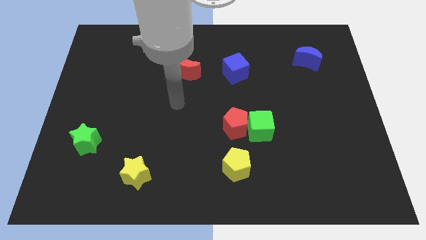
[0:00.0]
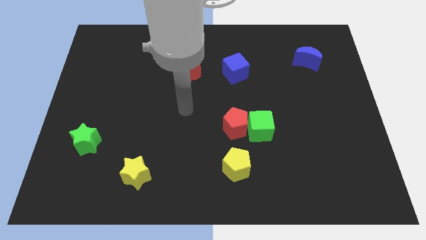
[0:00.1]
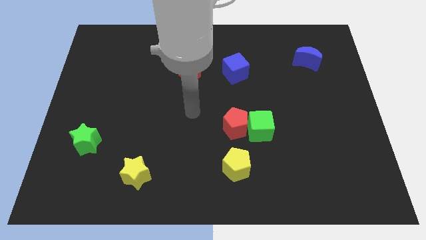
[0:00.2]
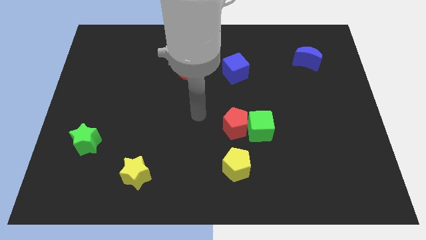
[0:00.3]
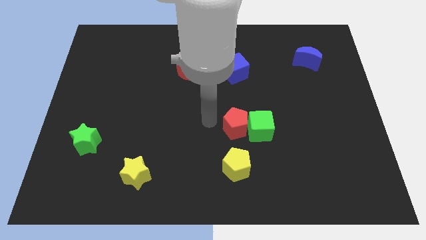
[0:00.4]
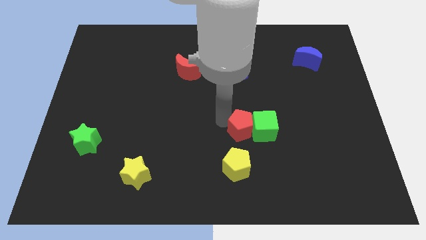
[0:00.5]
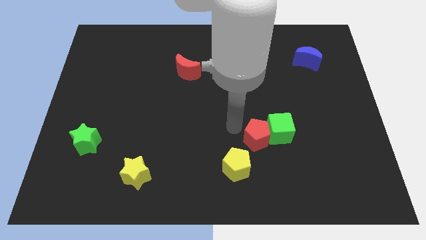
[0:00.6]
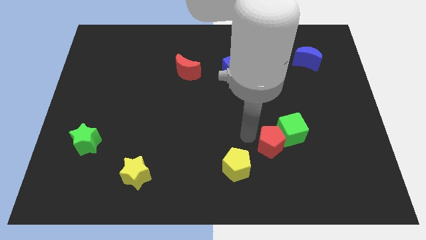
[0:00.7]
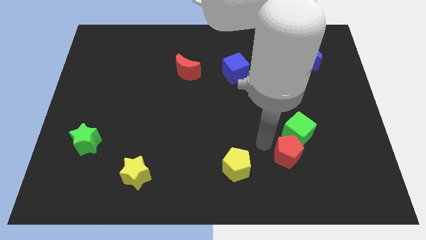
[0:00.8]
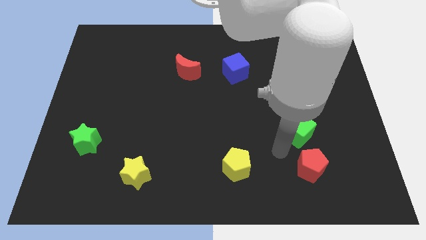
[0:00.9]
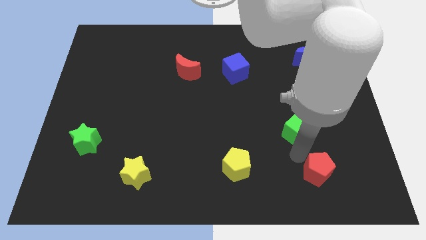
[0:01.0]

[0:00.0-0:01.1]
separate the green cube from the red pentagon

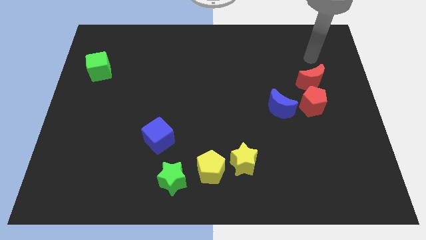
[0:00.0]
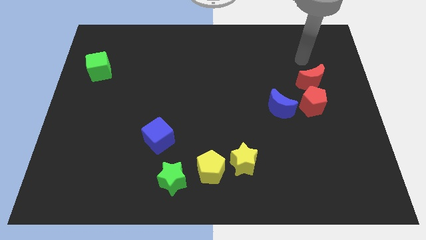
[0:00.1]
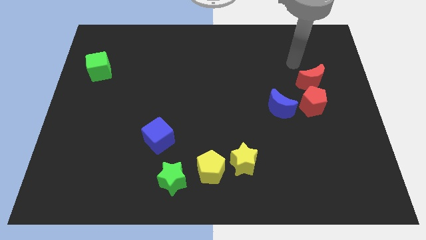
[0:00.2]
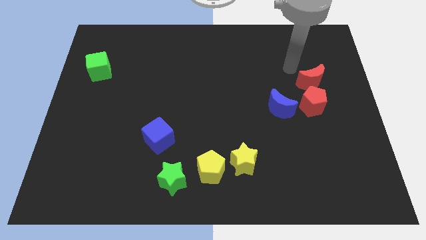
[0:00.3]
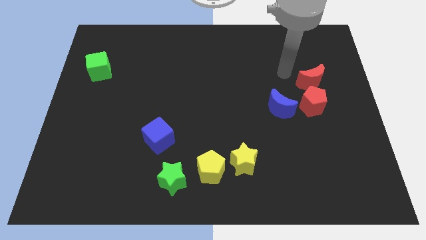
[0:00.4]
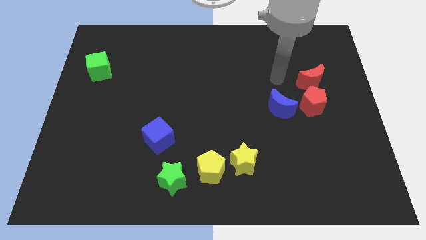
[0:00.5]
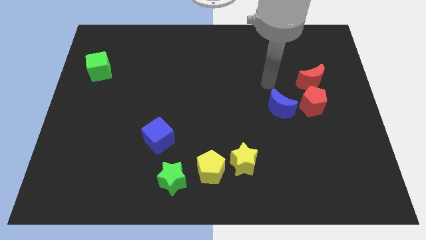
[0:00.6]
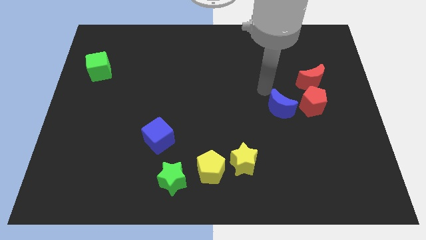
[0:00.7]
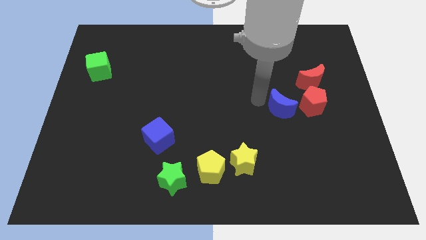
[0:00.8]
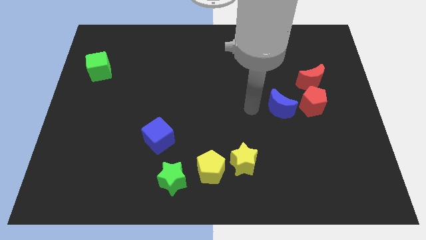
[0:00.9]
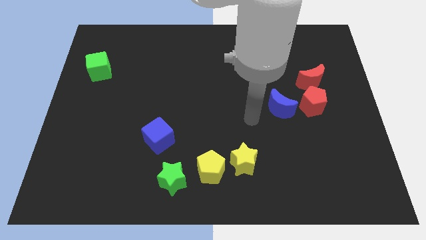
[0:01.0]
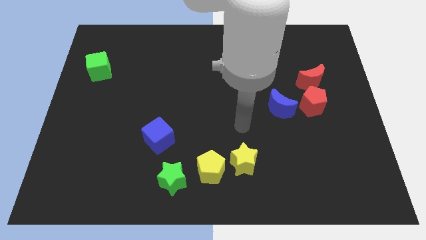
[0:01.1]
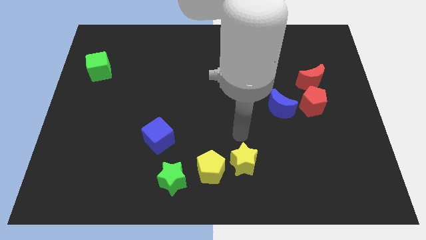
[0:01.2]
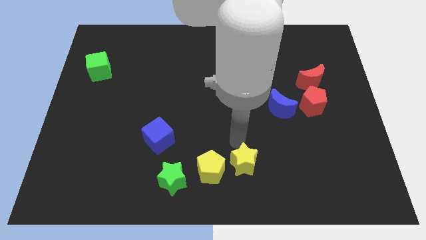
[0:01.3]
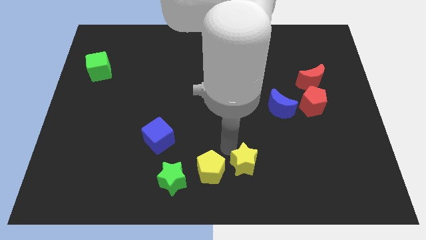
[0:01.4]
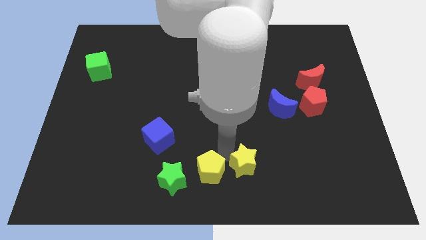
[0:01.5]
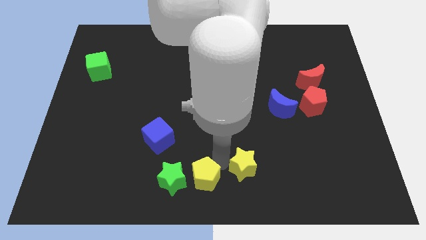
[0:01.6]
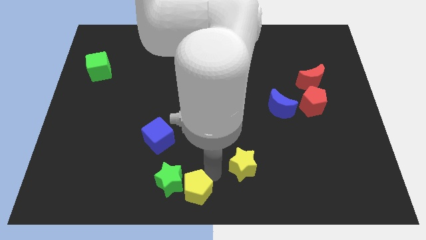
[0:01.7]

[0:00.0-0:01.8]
move the yellow star away from the yellow pentagon

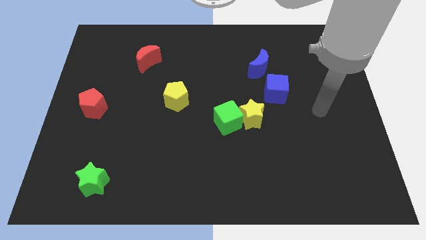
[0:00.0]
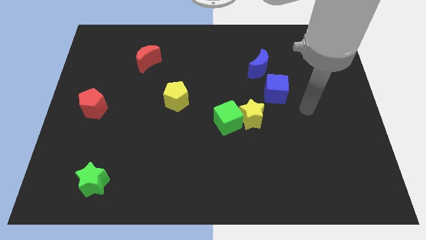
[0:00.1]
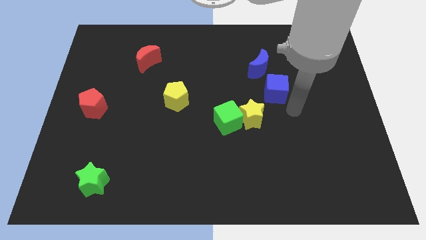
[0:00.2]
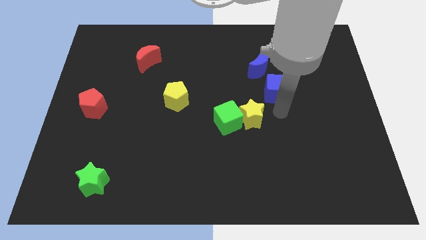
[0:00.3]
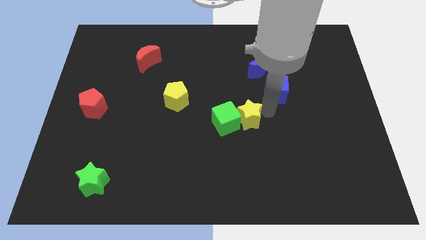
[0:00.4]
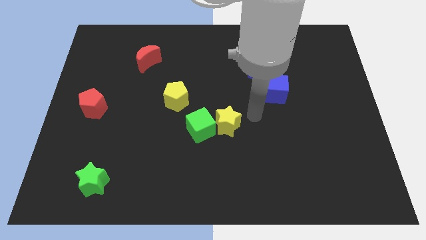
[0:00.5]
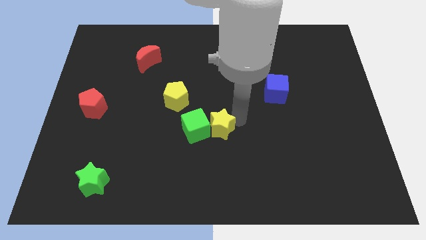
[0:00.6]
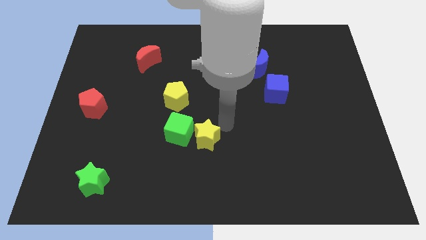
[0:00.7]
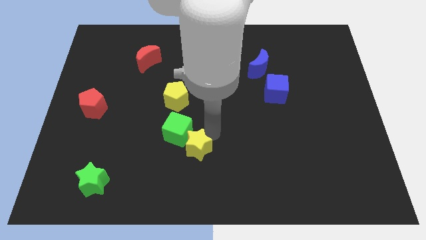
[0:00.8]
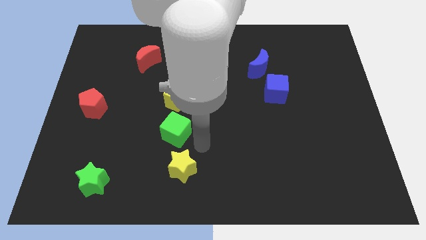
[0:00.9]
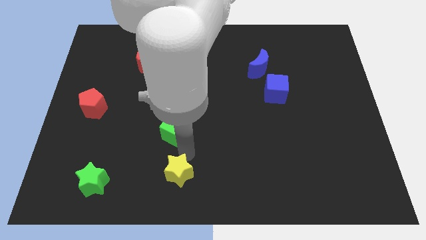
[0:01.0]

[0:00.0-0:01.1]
pull the green cube apart from the yellow star

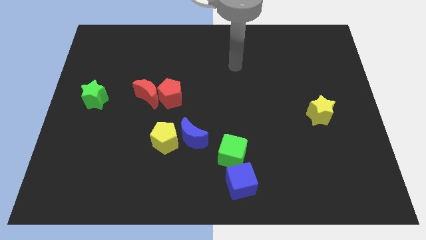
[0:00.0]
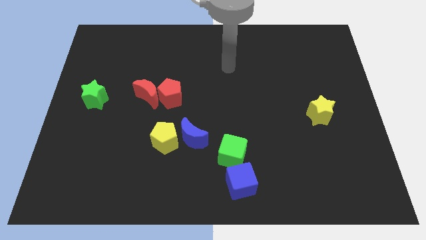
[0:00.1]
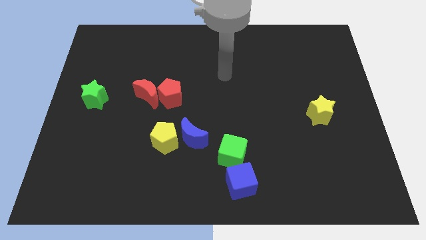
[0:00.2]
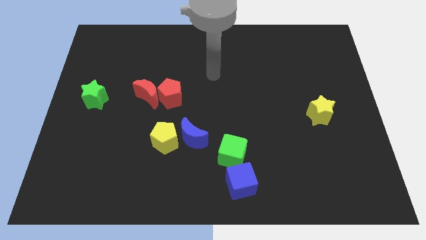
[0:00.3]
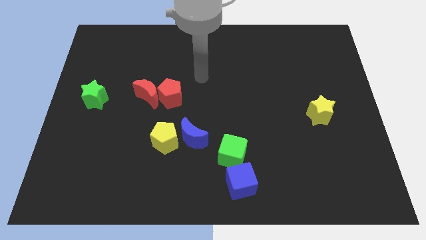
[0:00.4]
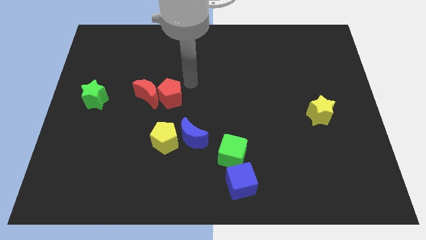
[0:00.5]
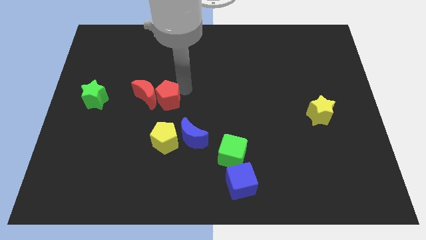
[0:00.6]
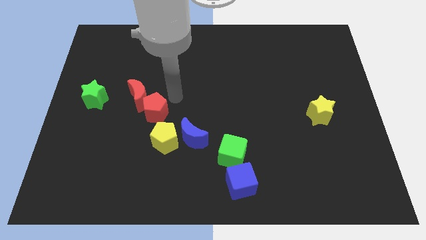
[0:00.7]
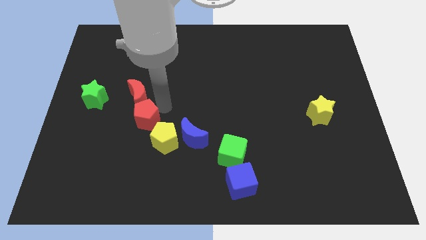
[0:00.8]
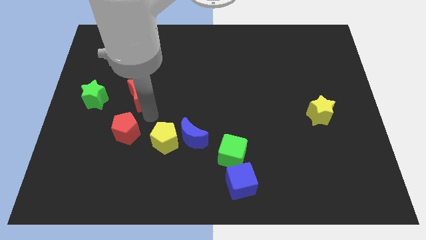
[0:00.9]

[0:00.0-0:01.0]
move the red moon away from the red pentagon

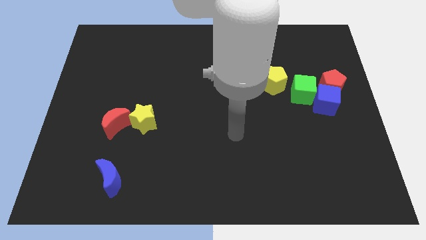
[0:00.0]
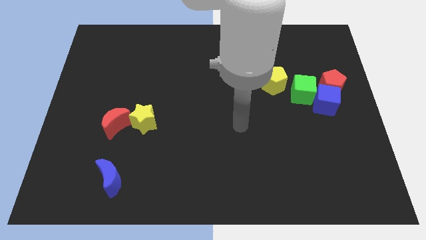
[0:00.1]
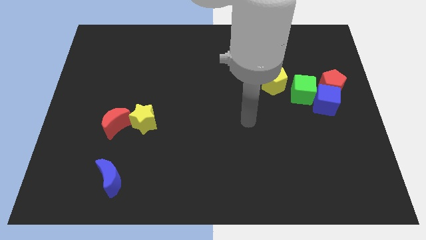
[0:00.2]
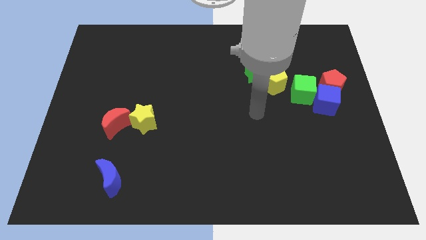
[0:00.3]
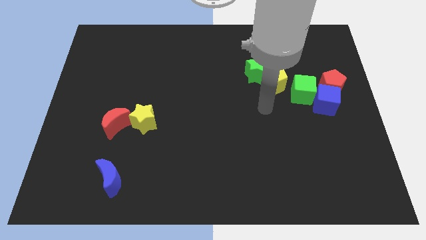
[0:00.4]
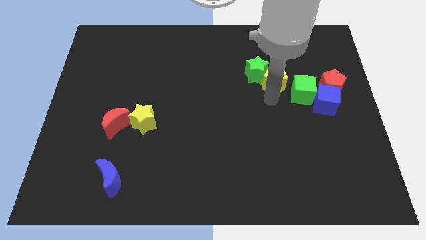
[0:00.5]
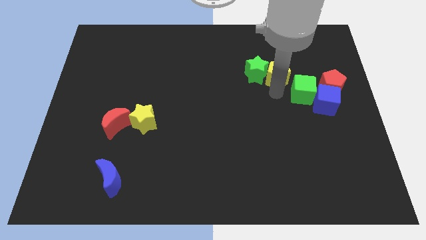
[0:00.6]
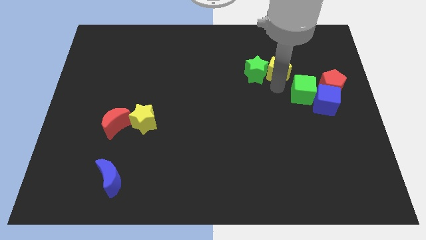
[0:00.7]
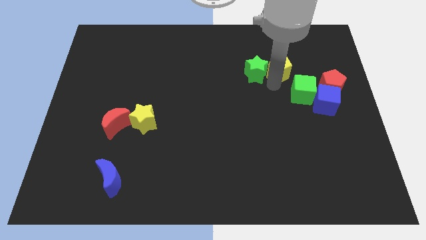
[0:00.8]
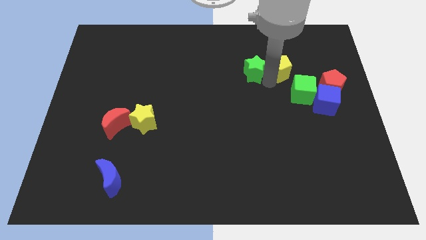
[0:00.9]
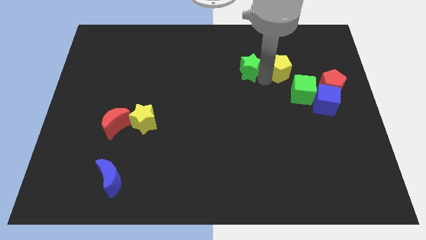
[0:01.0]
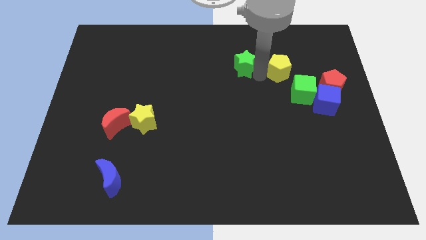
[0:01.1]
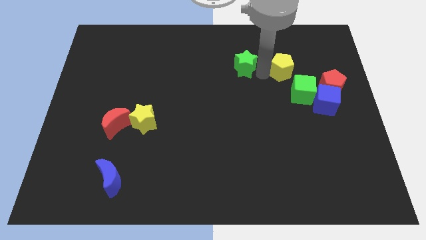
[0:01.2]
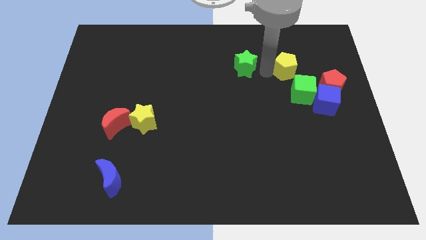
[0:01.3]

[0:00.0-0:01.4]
move the green star away from the yellow pentagon

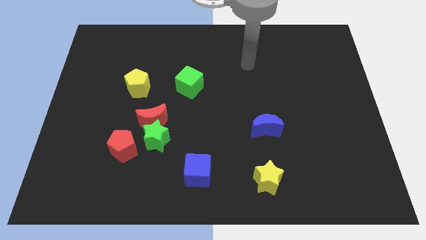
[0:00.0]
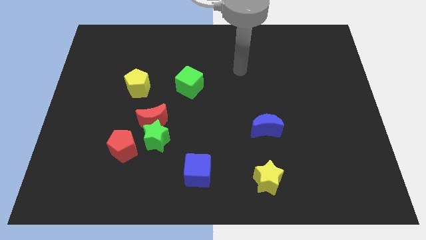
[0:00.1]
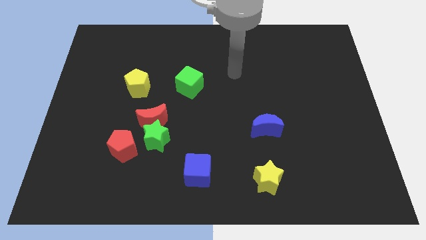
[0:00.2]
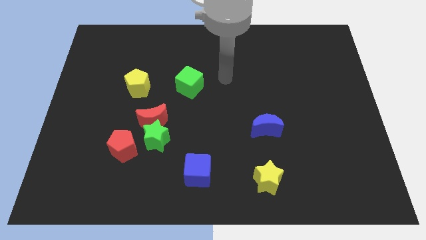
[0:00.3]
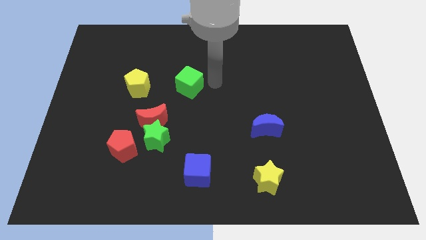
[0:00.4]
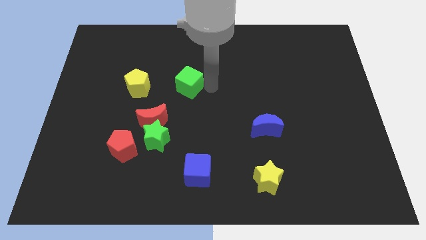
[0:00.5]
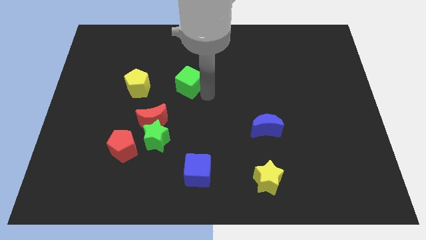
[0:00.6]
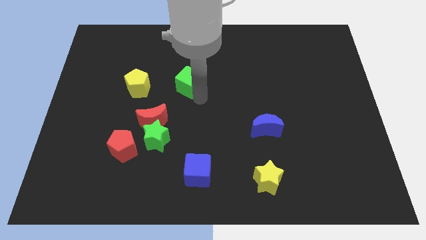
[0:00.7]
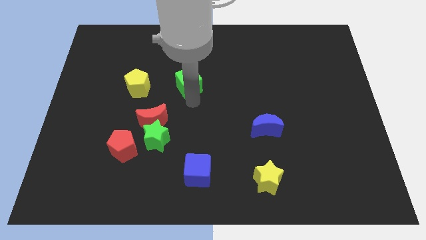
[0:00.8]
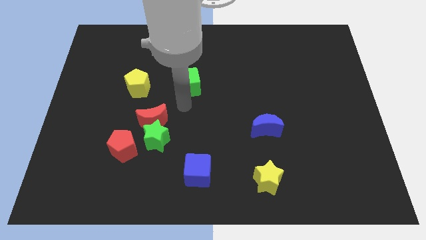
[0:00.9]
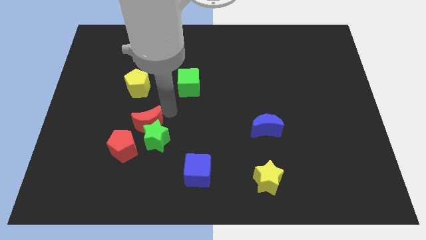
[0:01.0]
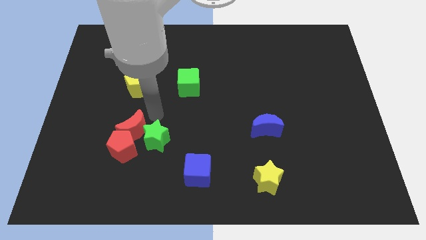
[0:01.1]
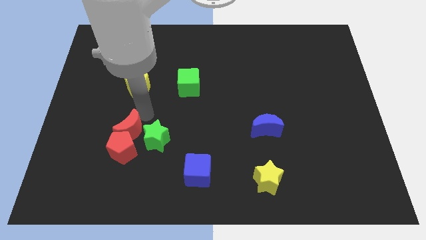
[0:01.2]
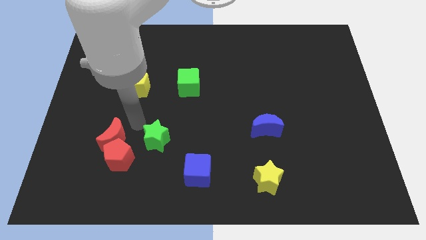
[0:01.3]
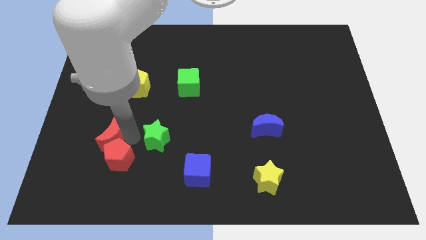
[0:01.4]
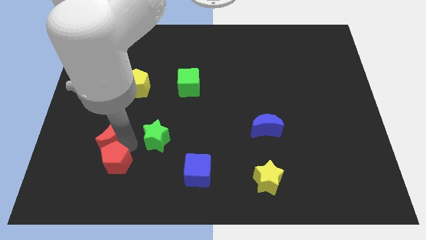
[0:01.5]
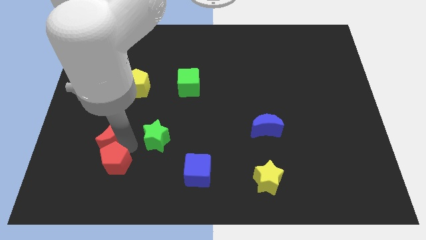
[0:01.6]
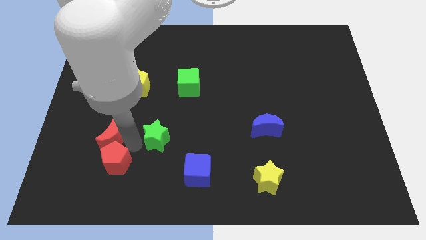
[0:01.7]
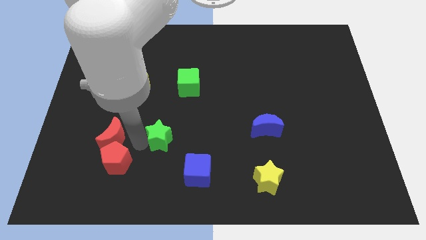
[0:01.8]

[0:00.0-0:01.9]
separate the green star from the red moon and red pentagon

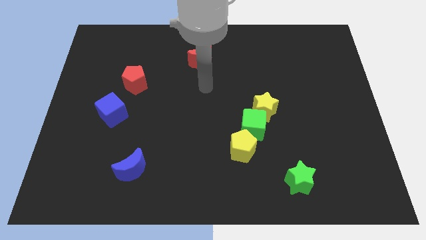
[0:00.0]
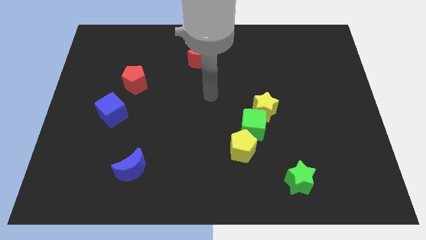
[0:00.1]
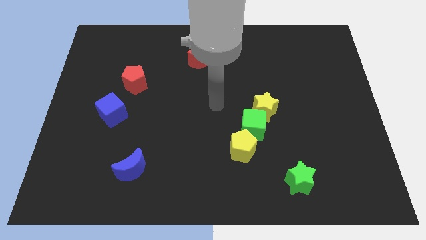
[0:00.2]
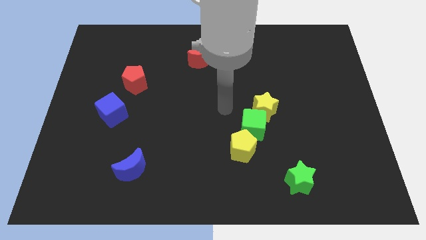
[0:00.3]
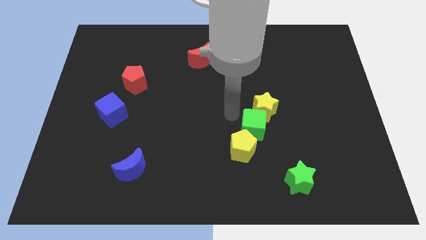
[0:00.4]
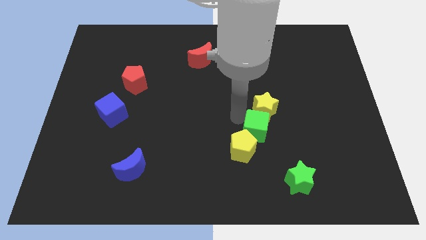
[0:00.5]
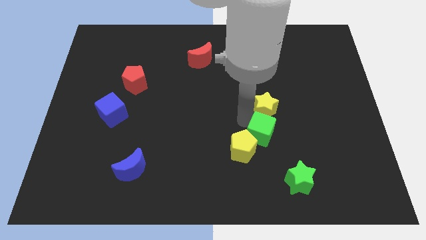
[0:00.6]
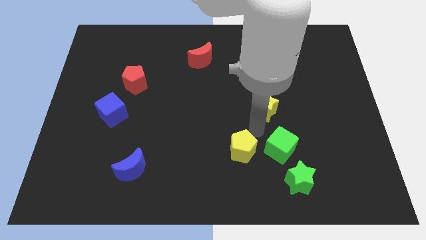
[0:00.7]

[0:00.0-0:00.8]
pull the yellow star apart from the green cube

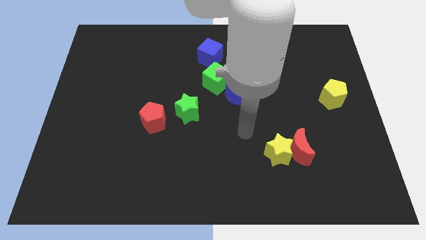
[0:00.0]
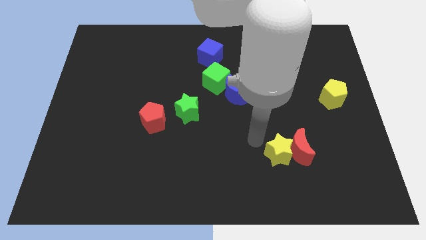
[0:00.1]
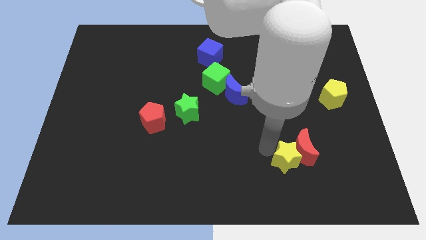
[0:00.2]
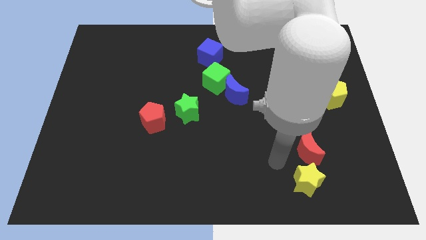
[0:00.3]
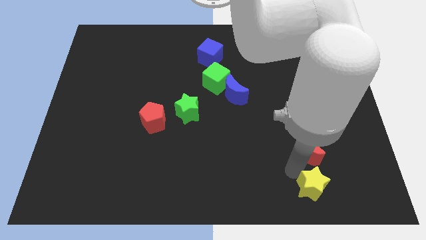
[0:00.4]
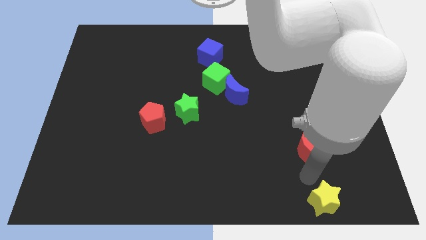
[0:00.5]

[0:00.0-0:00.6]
move the red moon away from the yellow star
